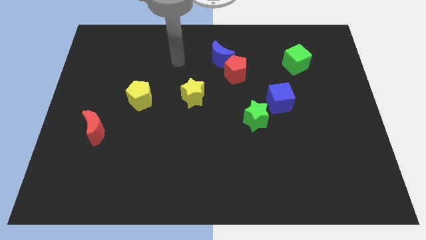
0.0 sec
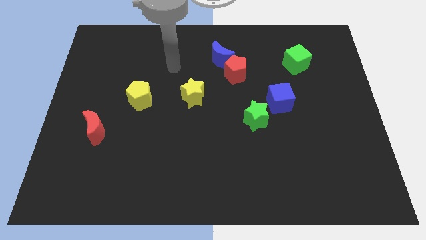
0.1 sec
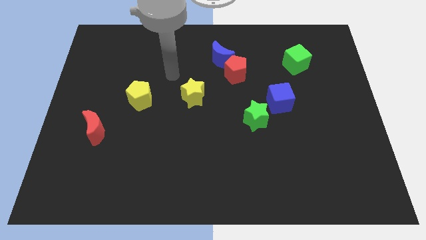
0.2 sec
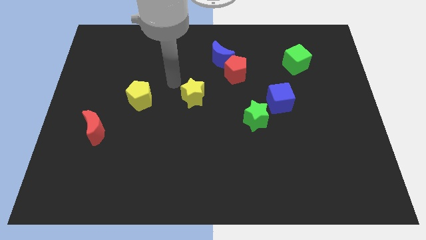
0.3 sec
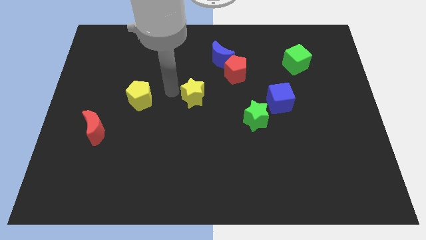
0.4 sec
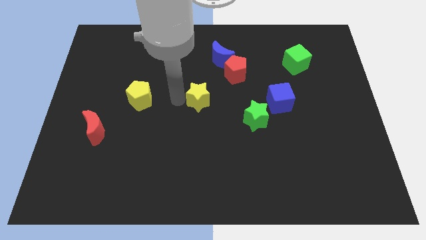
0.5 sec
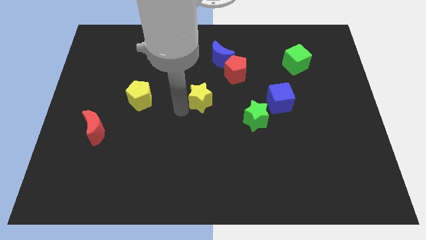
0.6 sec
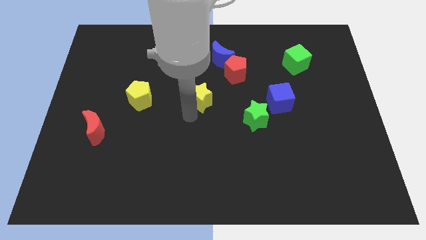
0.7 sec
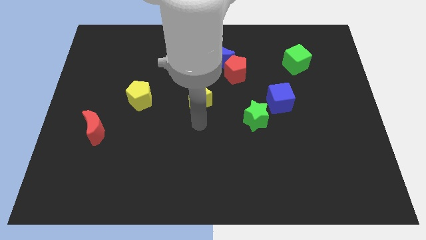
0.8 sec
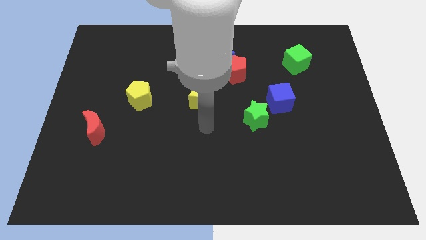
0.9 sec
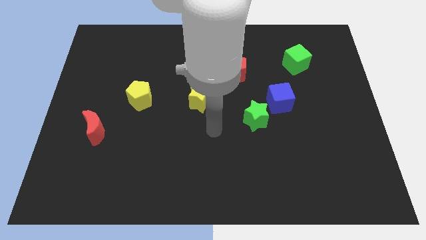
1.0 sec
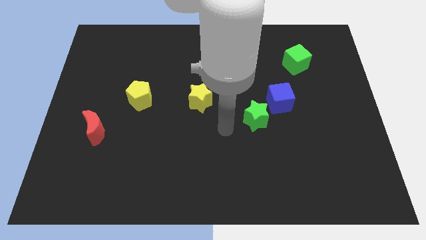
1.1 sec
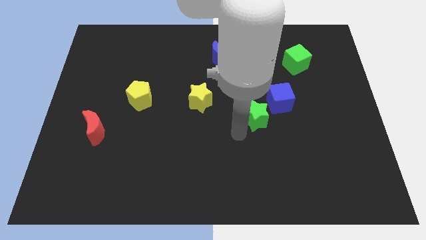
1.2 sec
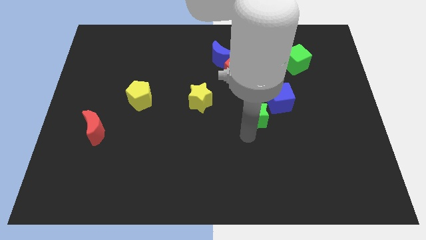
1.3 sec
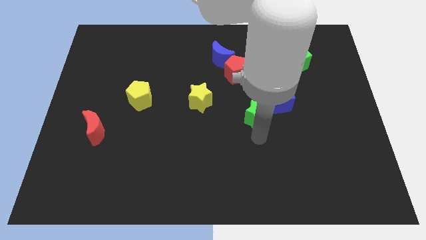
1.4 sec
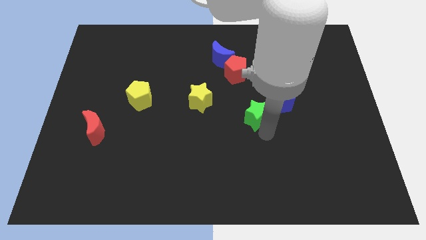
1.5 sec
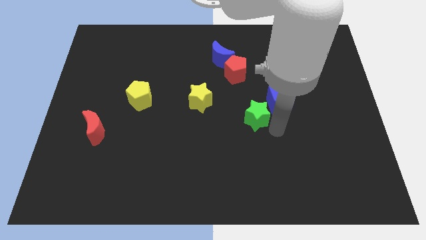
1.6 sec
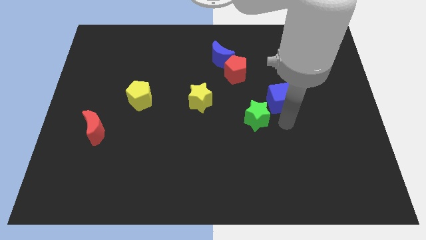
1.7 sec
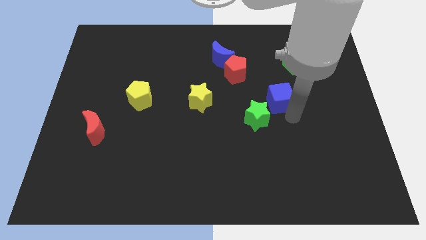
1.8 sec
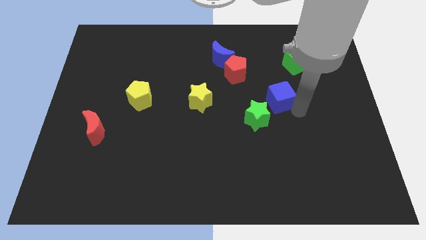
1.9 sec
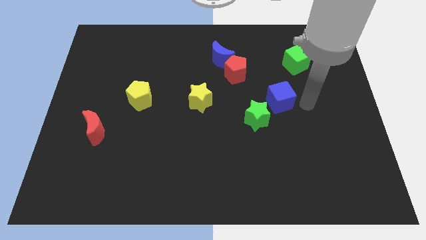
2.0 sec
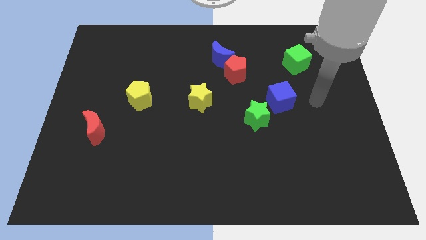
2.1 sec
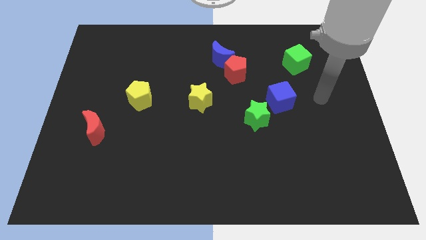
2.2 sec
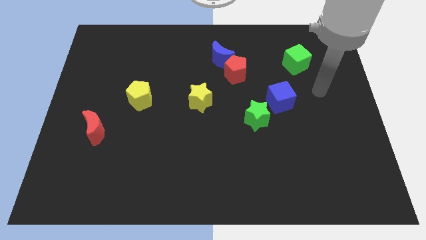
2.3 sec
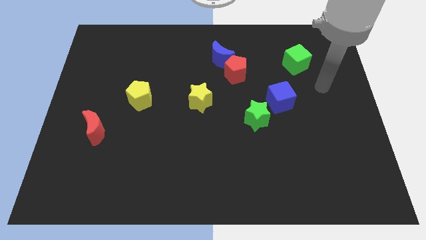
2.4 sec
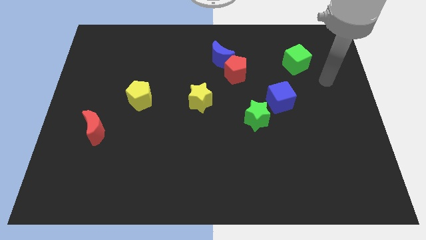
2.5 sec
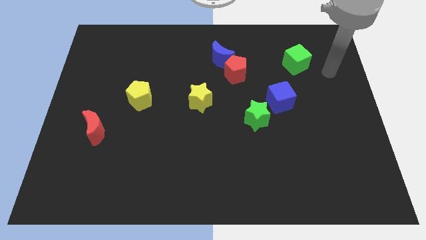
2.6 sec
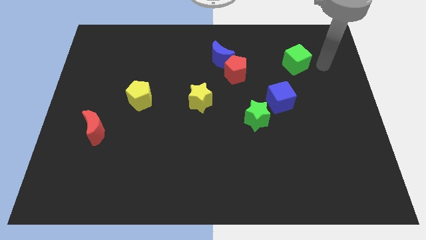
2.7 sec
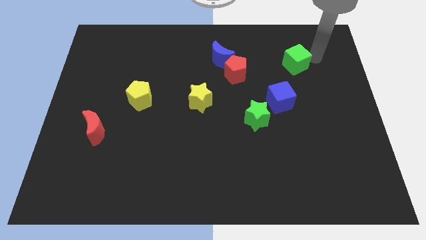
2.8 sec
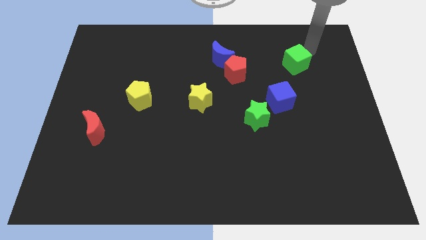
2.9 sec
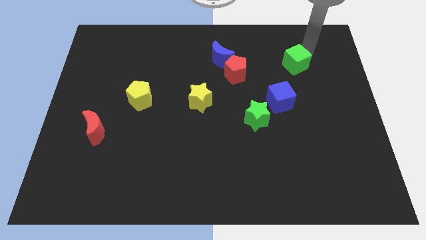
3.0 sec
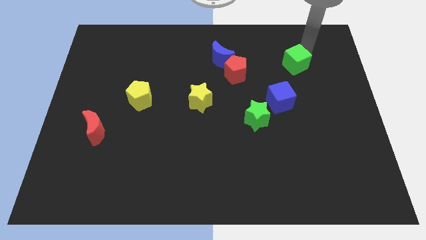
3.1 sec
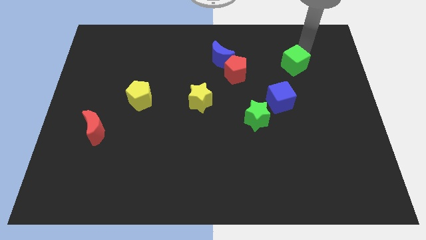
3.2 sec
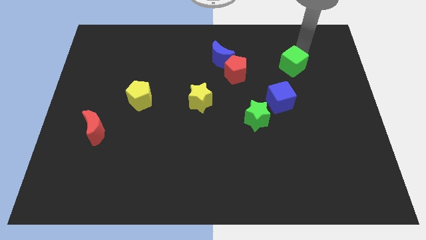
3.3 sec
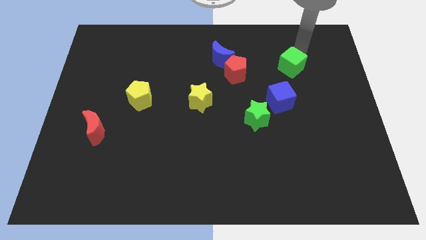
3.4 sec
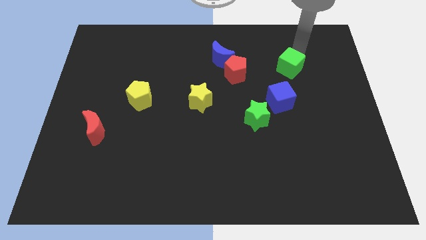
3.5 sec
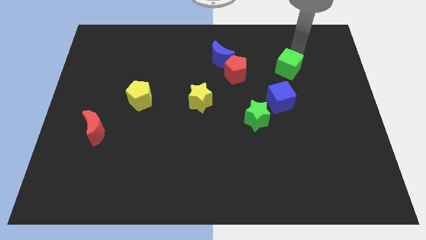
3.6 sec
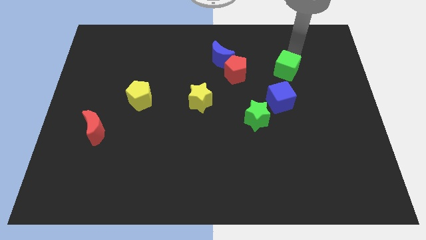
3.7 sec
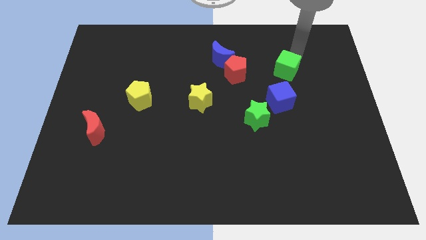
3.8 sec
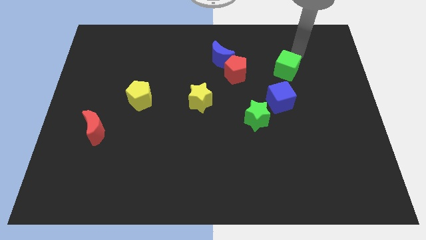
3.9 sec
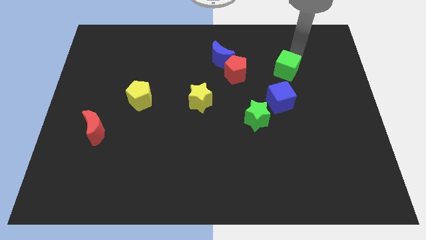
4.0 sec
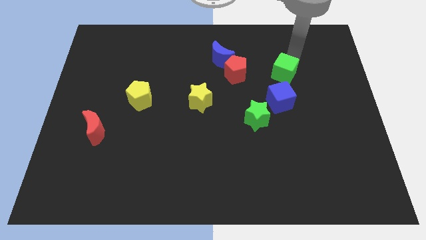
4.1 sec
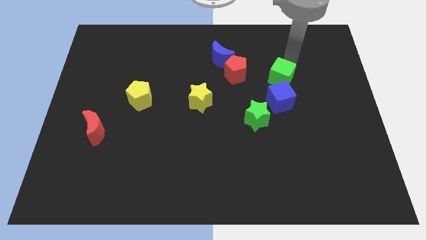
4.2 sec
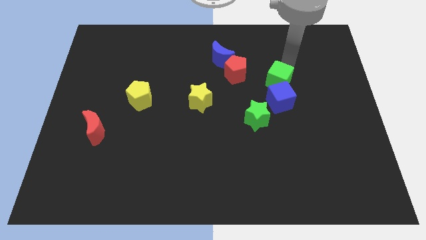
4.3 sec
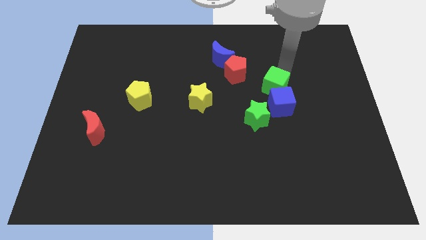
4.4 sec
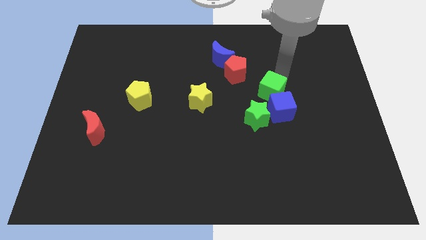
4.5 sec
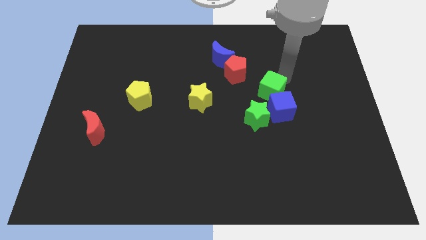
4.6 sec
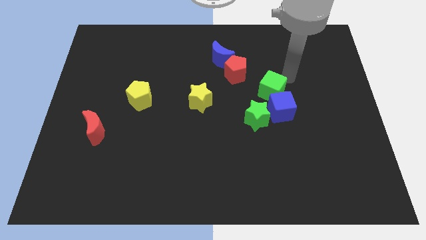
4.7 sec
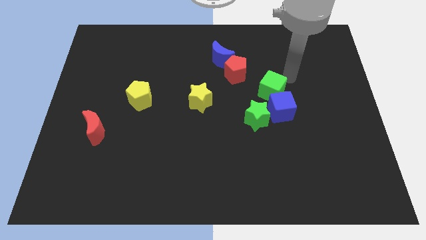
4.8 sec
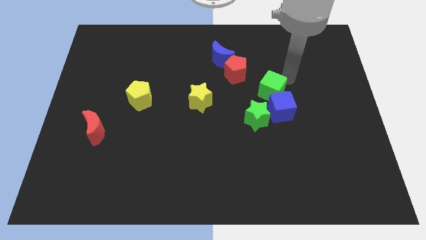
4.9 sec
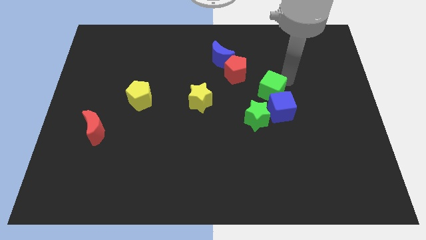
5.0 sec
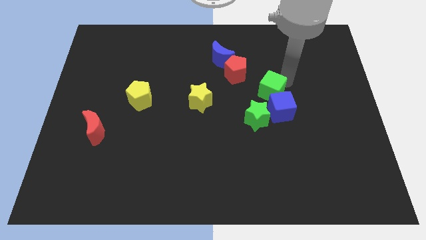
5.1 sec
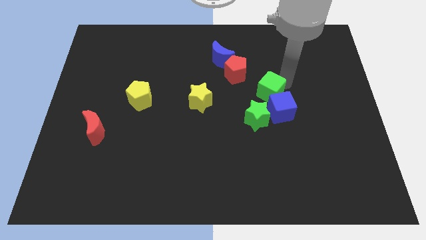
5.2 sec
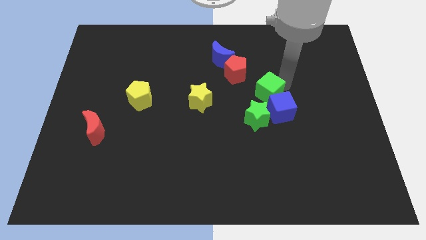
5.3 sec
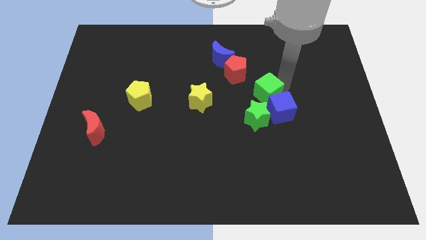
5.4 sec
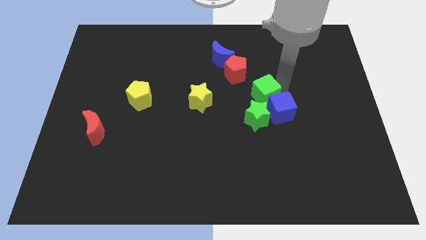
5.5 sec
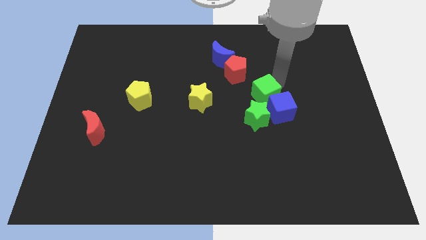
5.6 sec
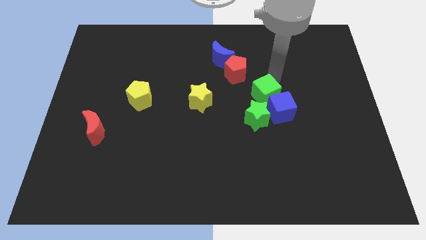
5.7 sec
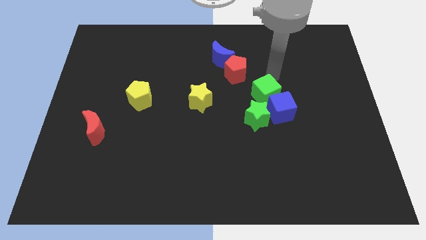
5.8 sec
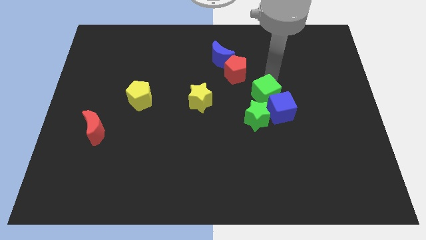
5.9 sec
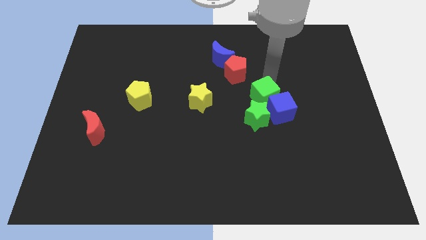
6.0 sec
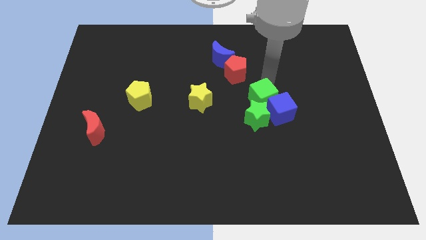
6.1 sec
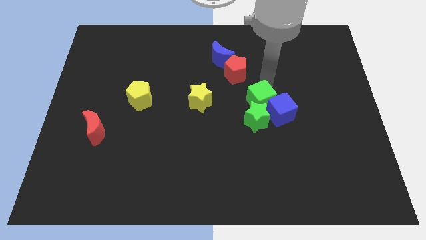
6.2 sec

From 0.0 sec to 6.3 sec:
put the green cube to the green star

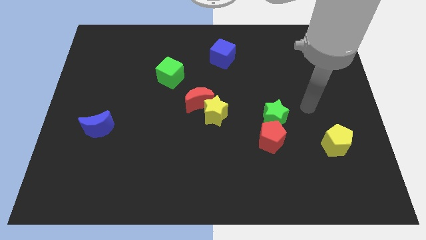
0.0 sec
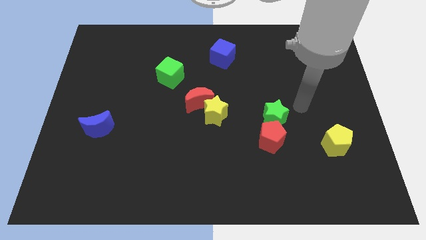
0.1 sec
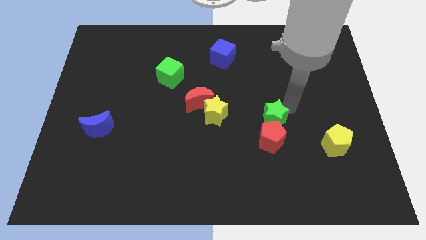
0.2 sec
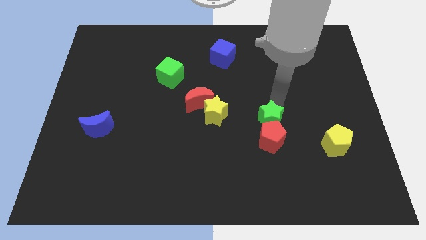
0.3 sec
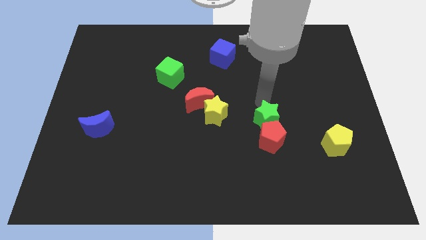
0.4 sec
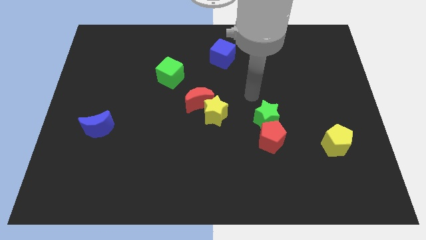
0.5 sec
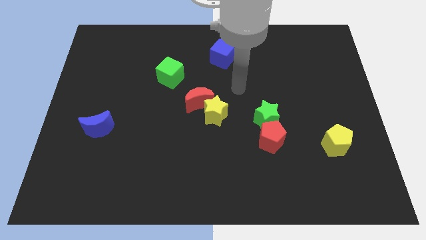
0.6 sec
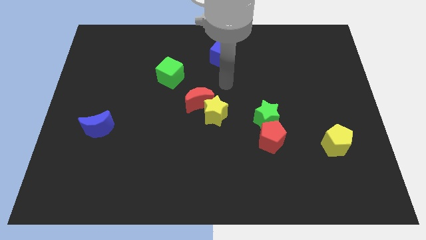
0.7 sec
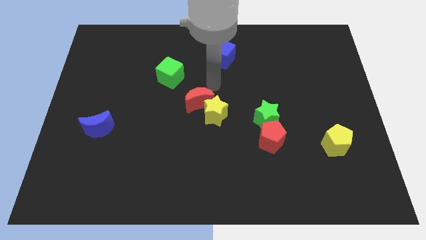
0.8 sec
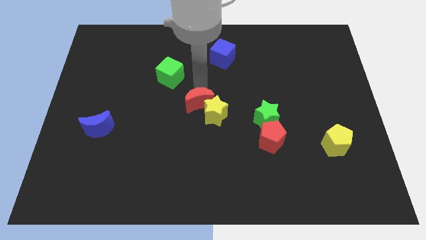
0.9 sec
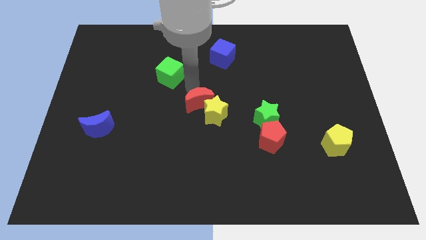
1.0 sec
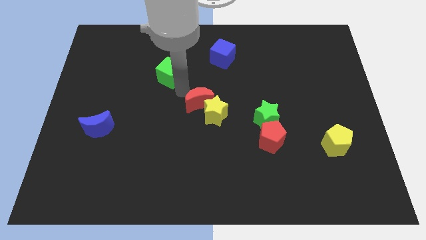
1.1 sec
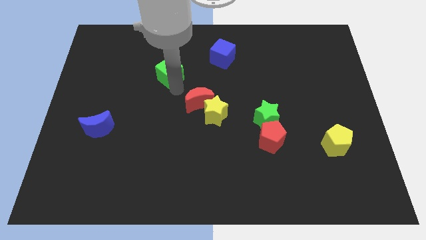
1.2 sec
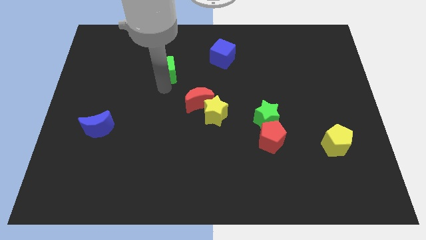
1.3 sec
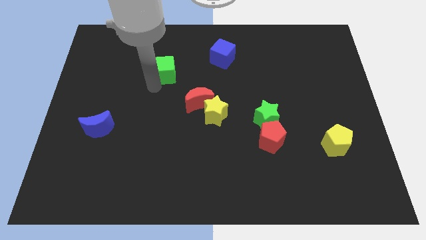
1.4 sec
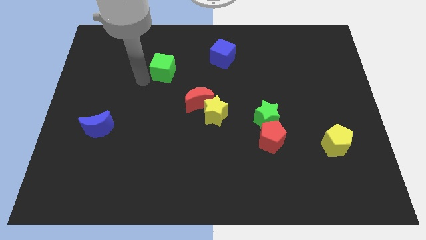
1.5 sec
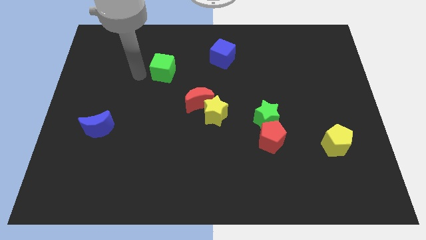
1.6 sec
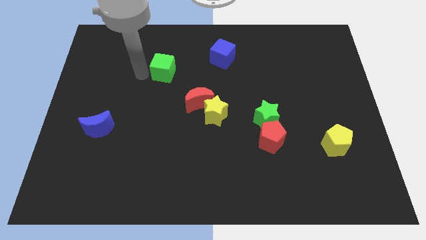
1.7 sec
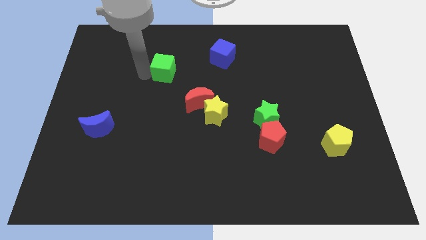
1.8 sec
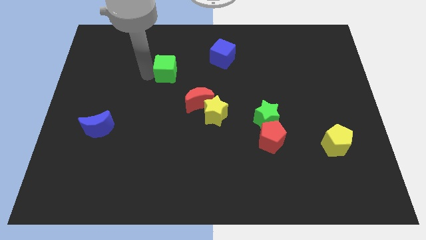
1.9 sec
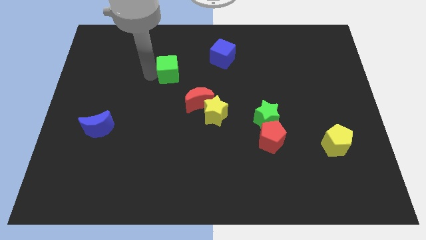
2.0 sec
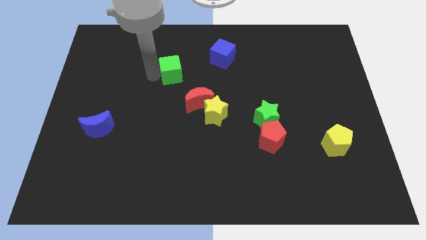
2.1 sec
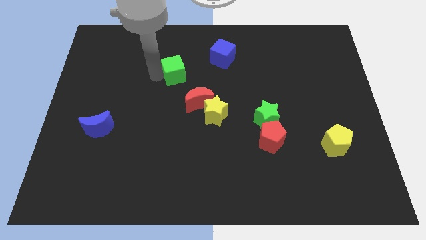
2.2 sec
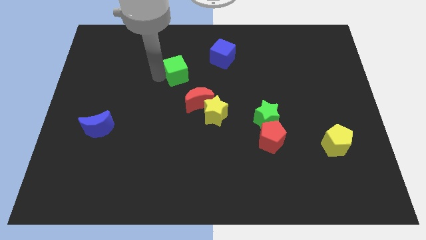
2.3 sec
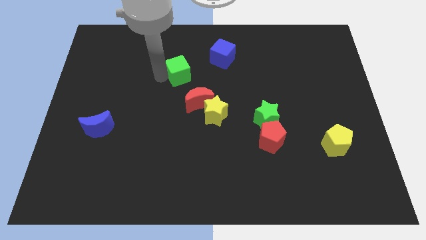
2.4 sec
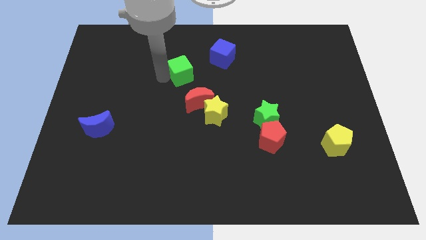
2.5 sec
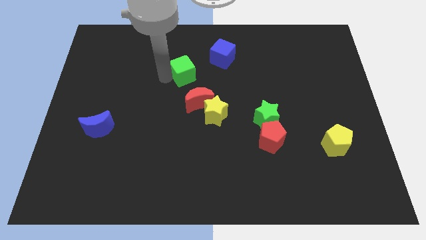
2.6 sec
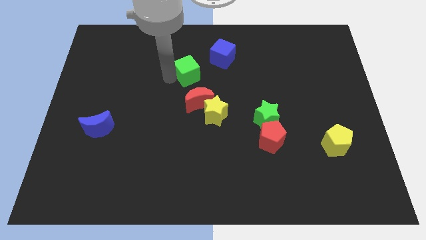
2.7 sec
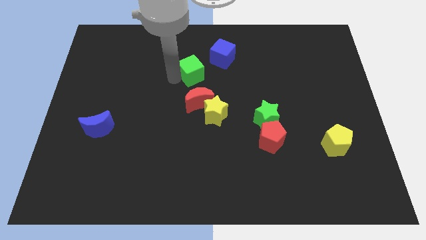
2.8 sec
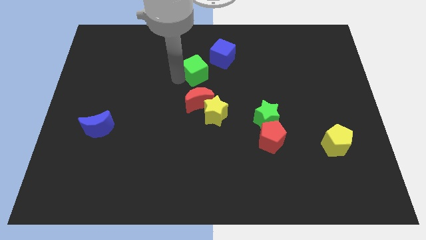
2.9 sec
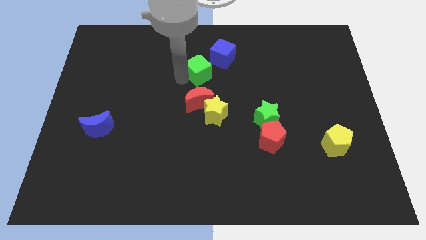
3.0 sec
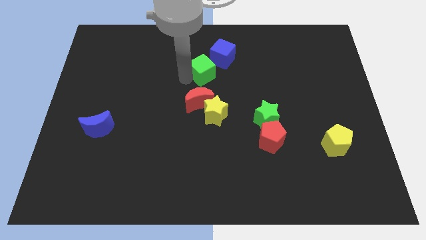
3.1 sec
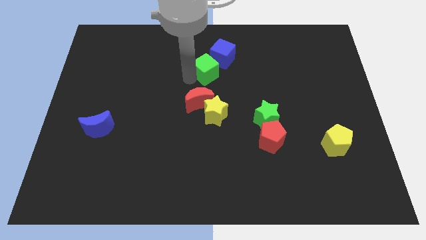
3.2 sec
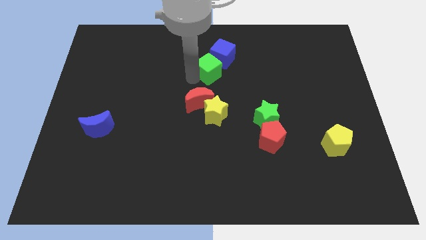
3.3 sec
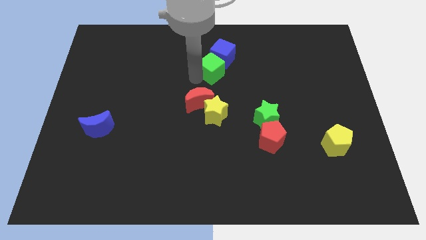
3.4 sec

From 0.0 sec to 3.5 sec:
push the green cube next to the blue cube
